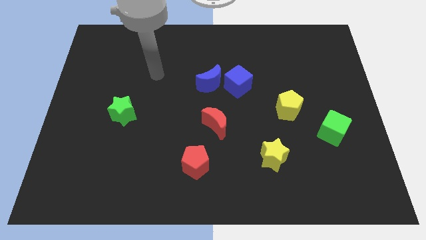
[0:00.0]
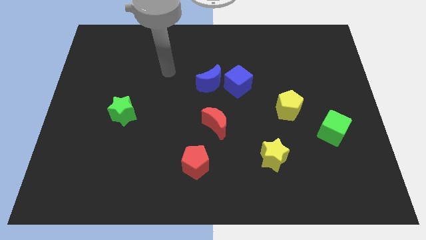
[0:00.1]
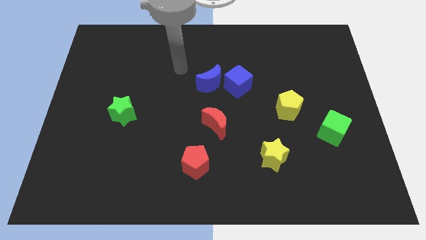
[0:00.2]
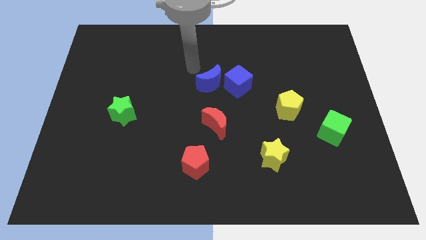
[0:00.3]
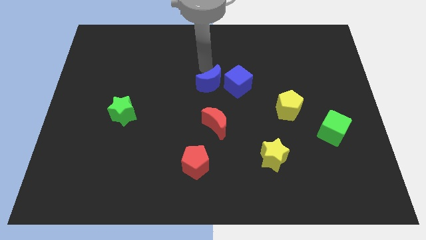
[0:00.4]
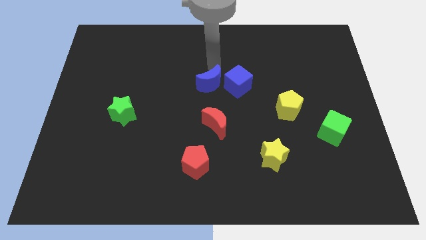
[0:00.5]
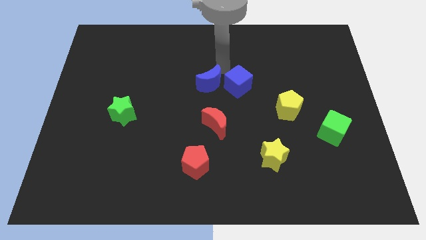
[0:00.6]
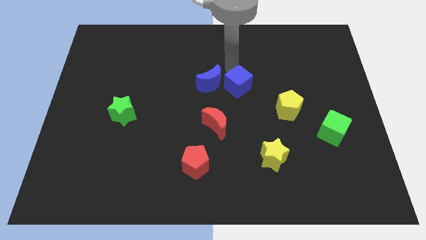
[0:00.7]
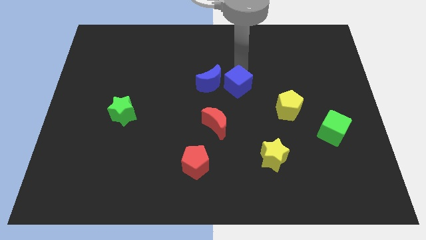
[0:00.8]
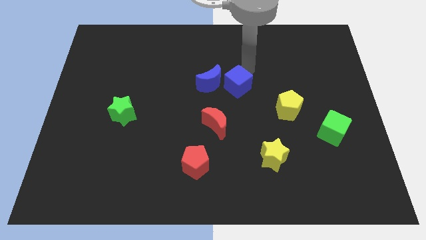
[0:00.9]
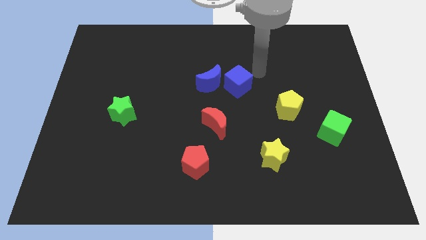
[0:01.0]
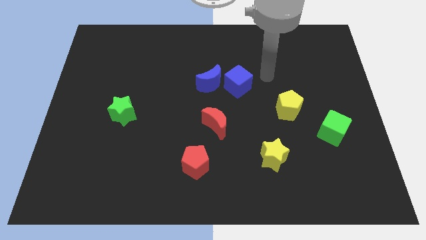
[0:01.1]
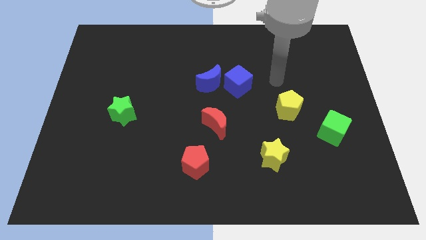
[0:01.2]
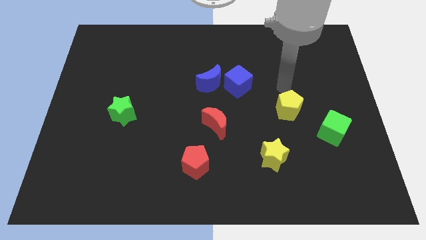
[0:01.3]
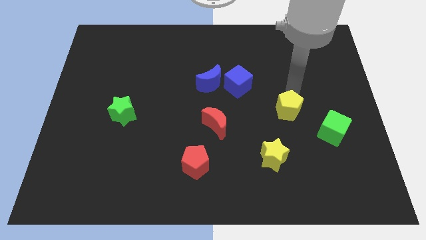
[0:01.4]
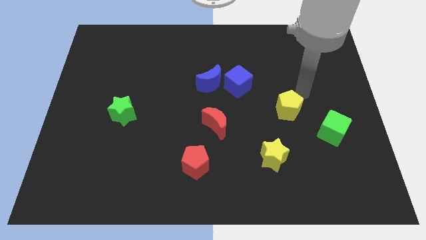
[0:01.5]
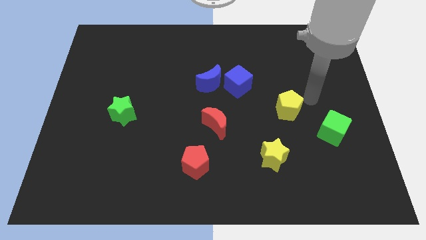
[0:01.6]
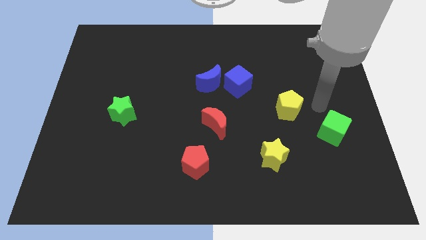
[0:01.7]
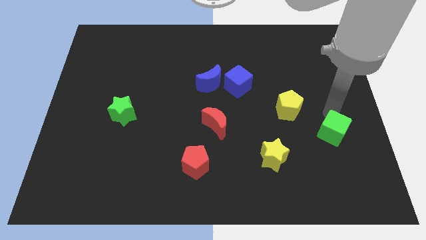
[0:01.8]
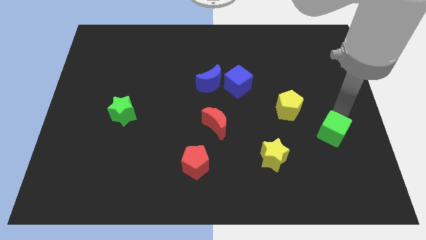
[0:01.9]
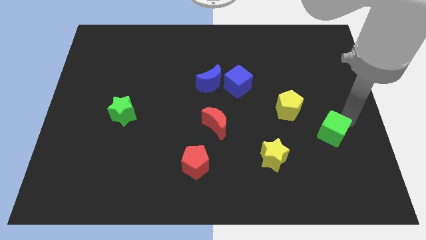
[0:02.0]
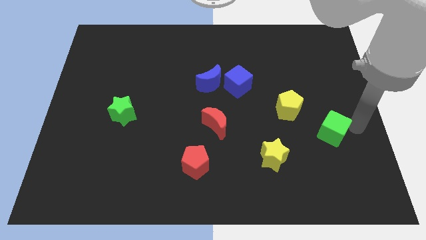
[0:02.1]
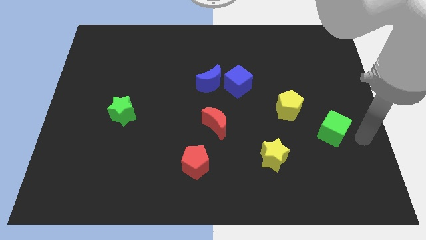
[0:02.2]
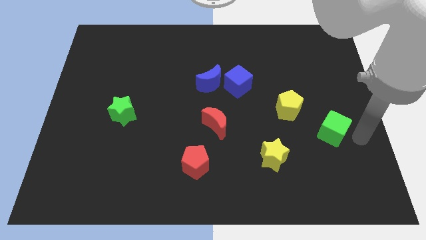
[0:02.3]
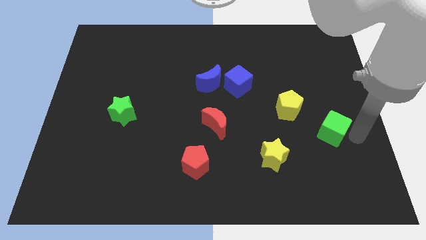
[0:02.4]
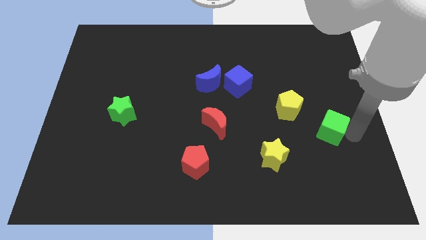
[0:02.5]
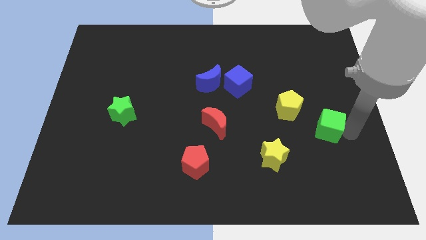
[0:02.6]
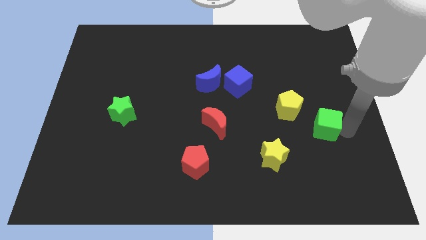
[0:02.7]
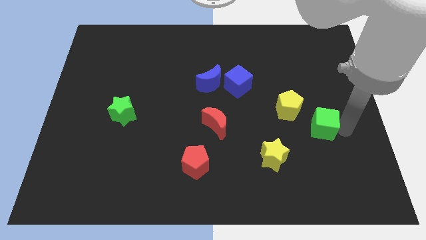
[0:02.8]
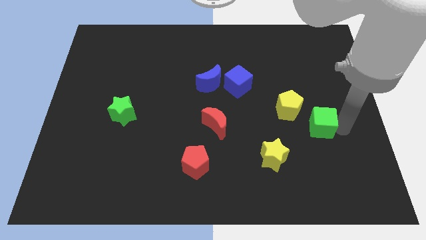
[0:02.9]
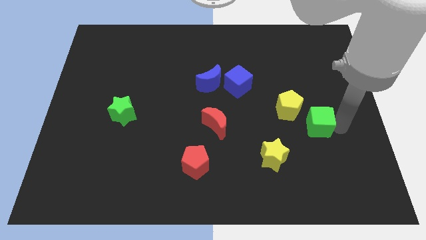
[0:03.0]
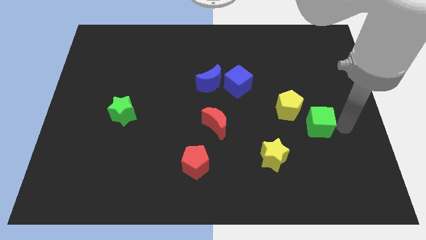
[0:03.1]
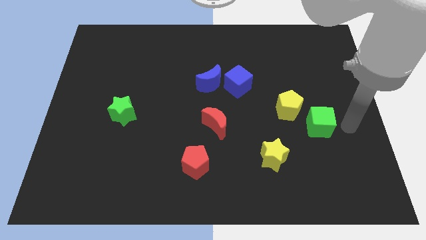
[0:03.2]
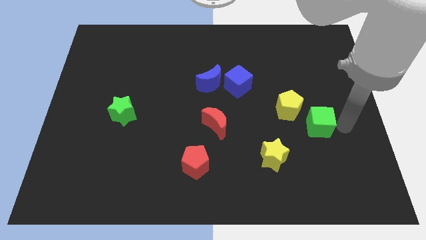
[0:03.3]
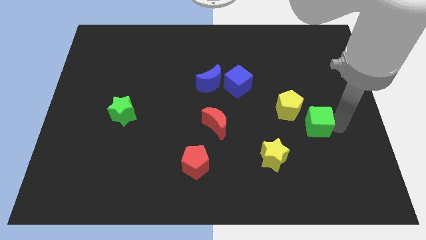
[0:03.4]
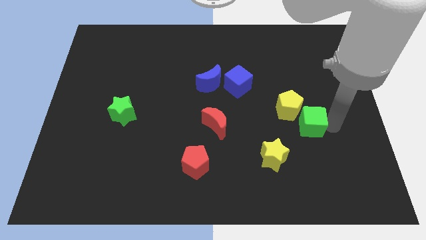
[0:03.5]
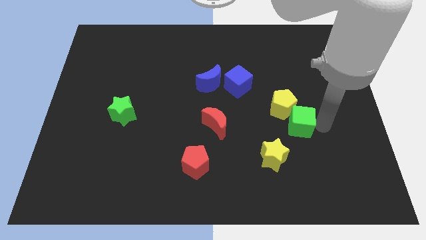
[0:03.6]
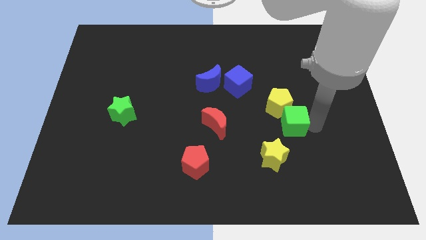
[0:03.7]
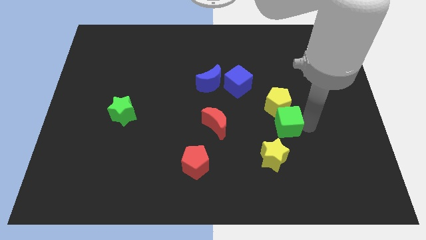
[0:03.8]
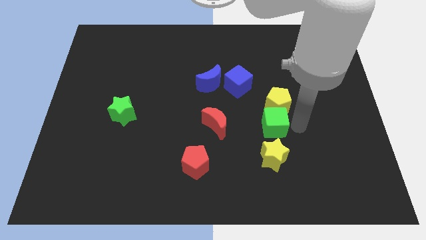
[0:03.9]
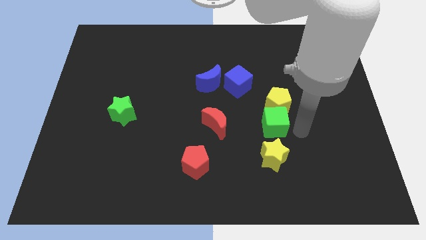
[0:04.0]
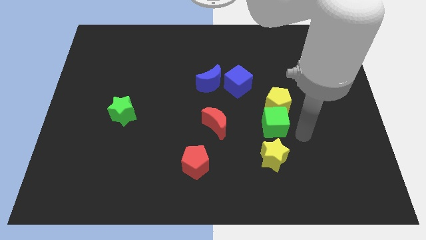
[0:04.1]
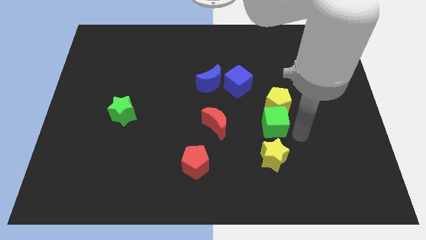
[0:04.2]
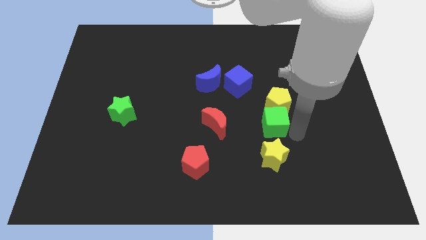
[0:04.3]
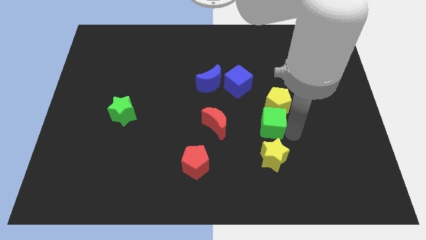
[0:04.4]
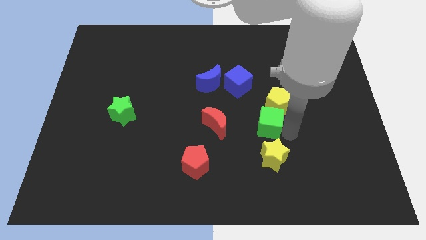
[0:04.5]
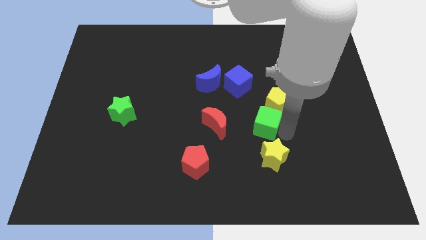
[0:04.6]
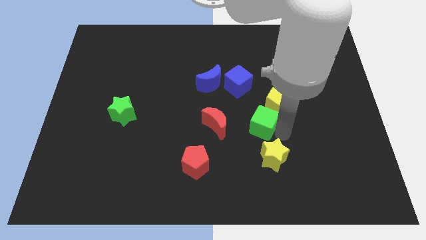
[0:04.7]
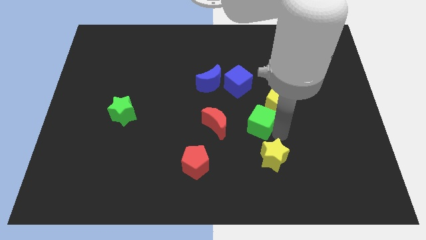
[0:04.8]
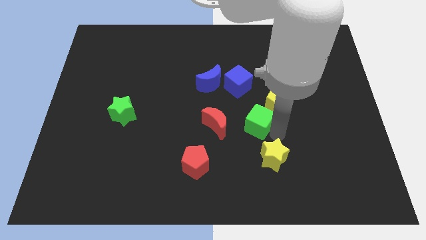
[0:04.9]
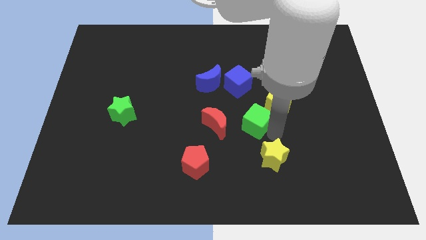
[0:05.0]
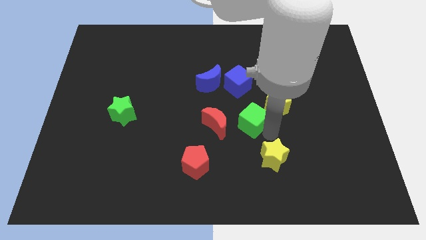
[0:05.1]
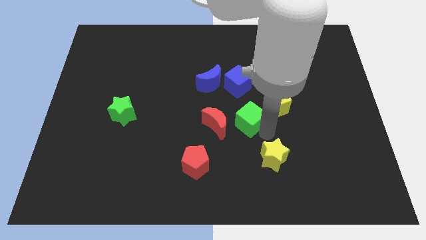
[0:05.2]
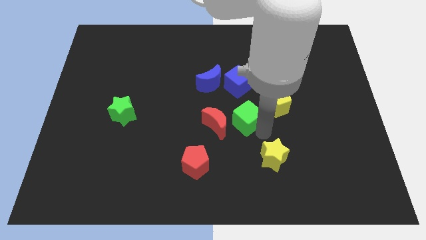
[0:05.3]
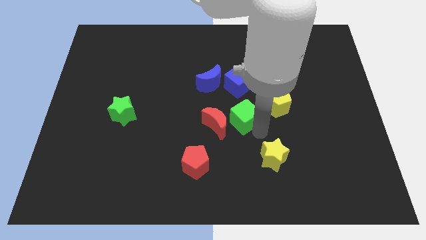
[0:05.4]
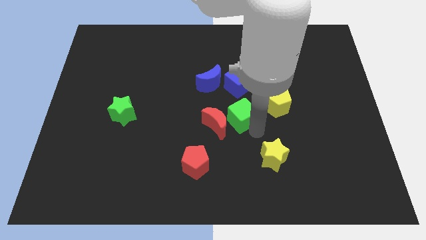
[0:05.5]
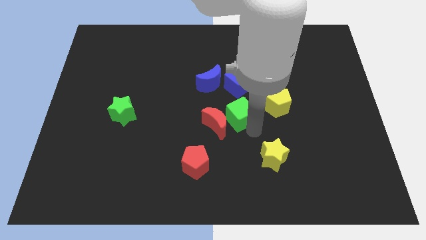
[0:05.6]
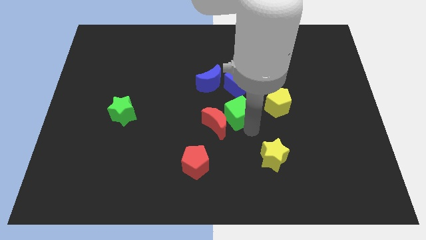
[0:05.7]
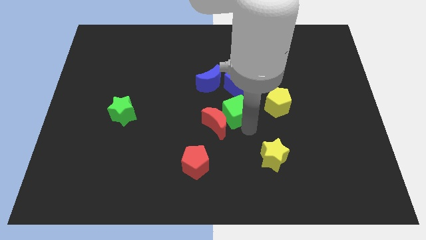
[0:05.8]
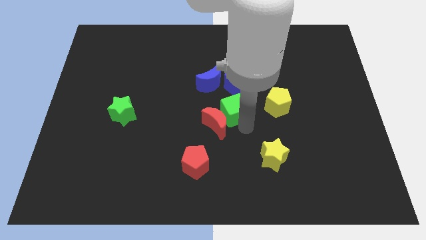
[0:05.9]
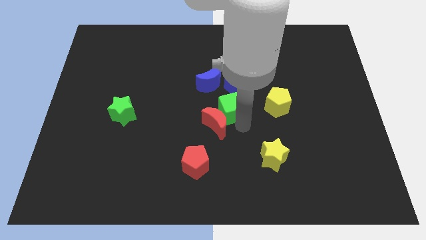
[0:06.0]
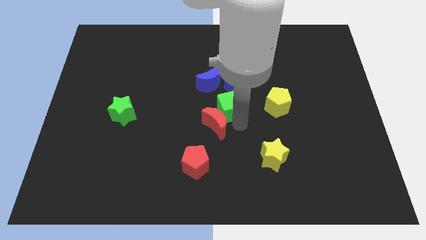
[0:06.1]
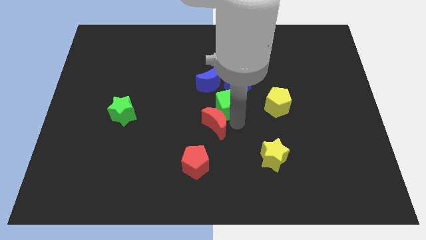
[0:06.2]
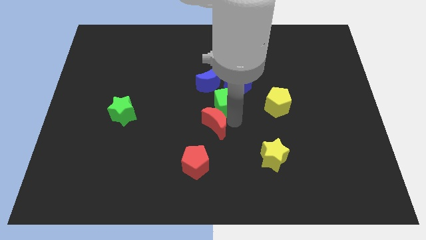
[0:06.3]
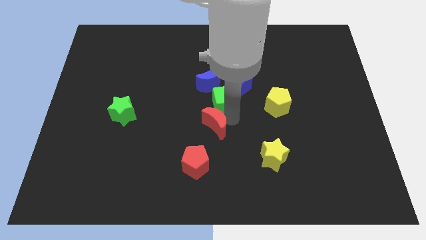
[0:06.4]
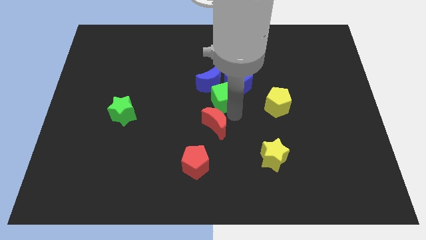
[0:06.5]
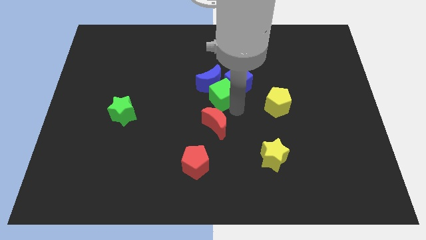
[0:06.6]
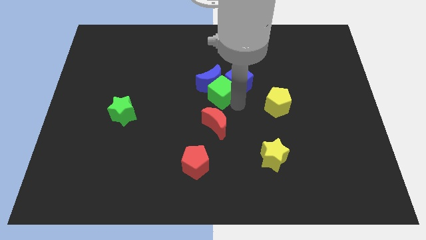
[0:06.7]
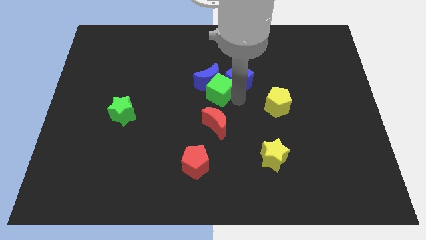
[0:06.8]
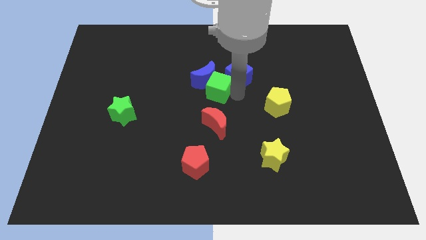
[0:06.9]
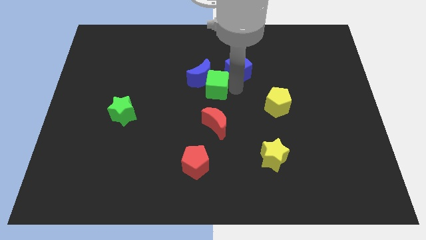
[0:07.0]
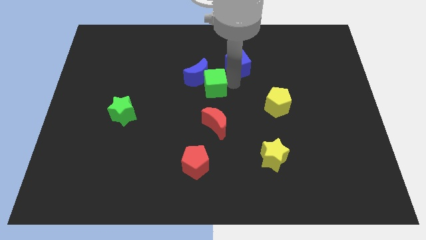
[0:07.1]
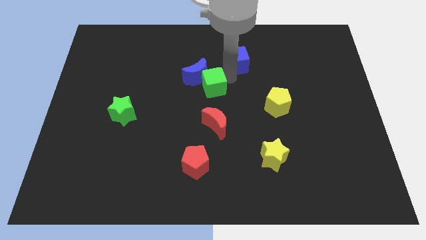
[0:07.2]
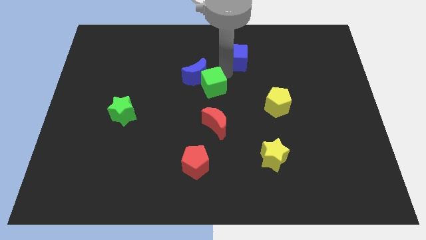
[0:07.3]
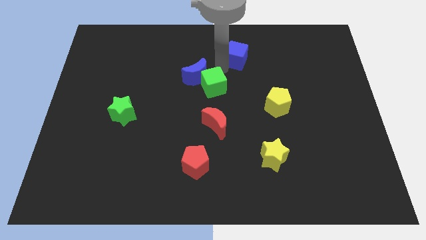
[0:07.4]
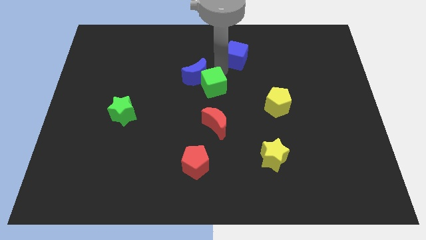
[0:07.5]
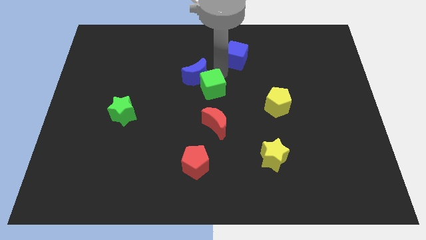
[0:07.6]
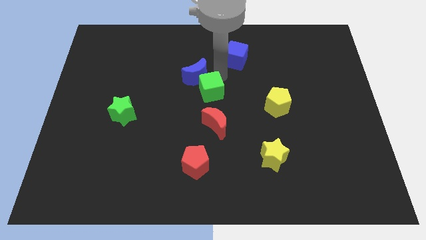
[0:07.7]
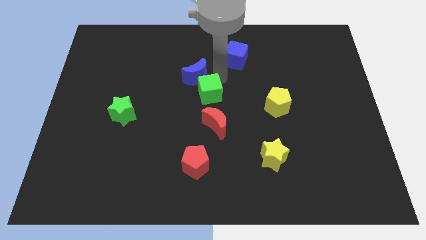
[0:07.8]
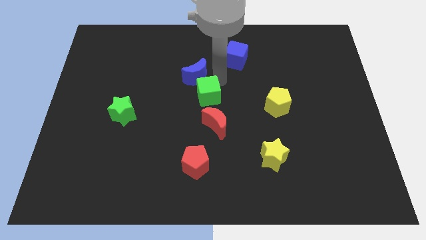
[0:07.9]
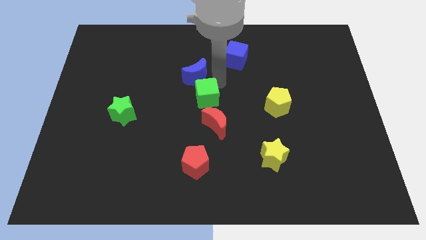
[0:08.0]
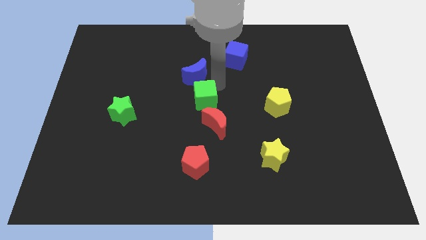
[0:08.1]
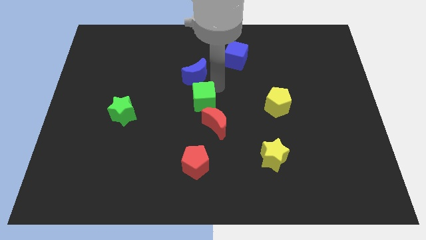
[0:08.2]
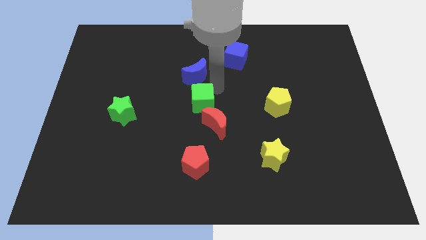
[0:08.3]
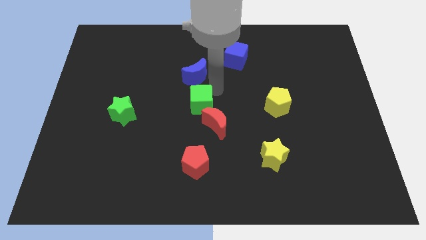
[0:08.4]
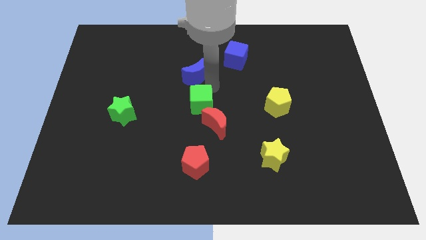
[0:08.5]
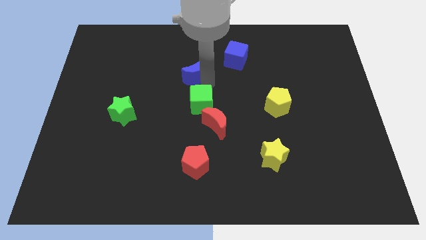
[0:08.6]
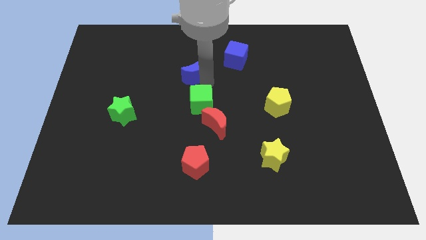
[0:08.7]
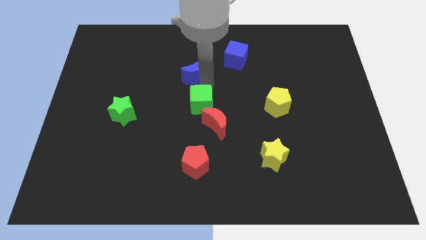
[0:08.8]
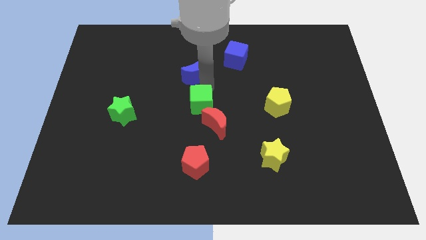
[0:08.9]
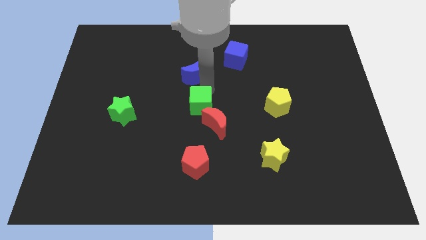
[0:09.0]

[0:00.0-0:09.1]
push the green cube to the top side of the red pentagon
